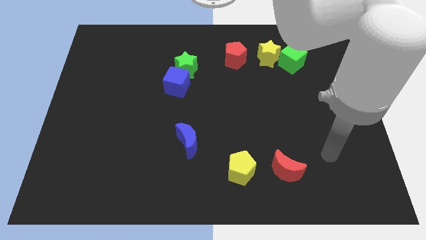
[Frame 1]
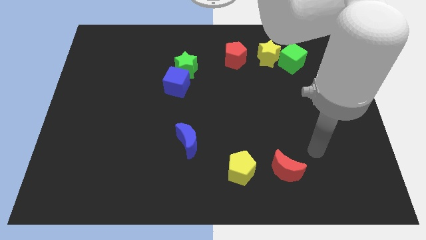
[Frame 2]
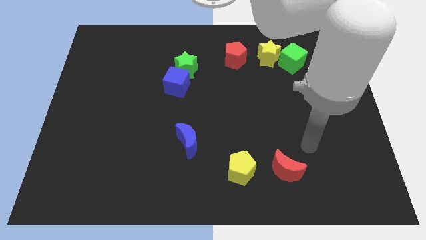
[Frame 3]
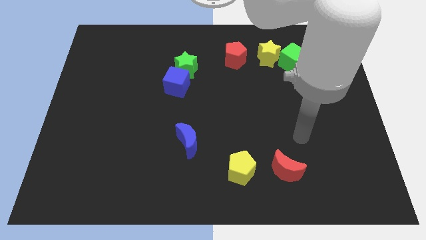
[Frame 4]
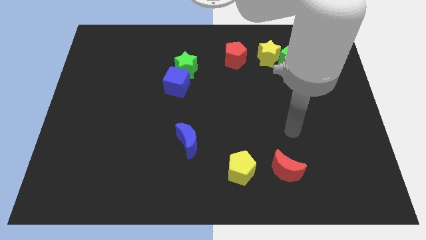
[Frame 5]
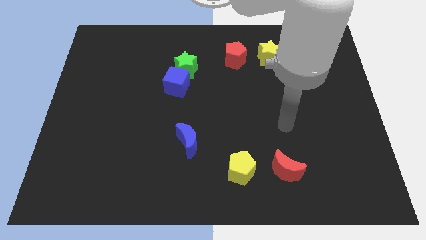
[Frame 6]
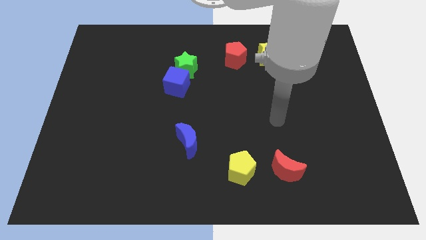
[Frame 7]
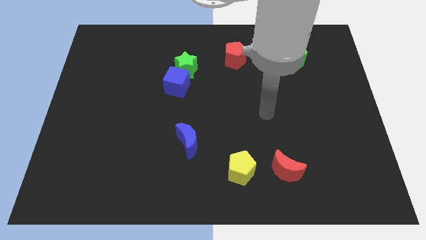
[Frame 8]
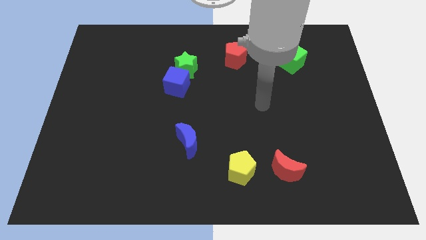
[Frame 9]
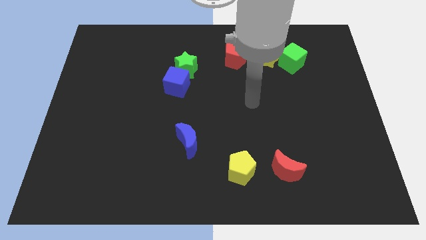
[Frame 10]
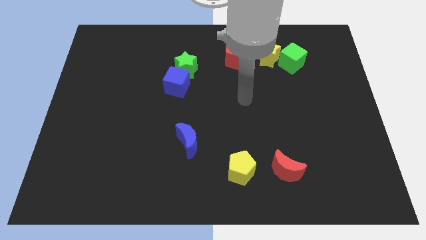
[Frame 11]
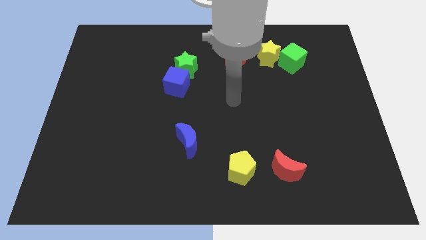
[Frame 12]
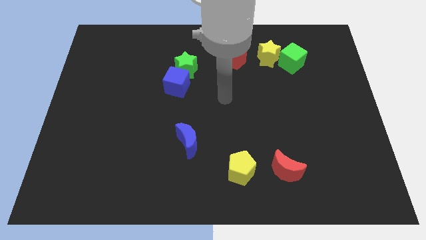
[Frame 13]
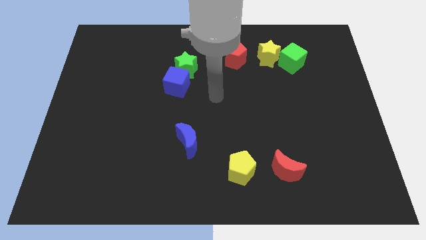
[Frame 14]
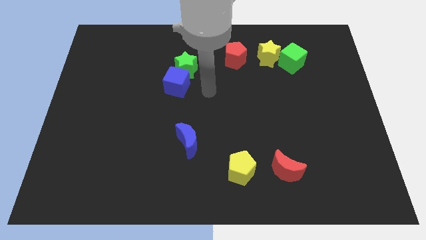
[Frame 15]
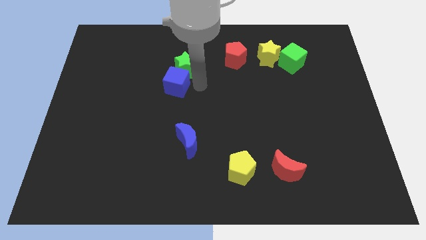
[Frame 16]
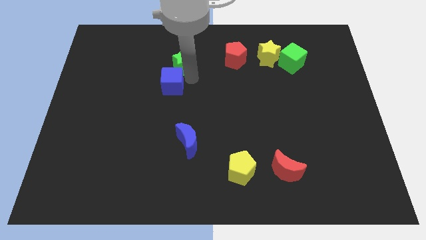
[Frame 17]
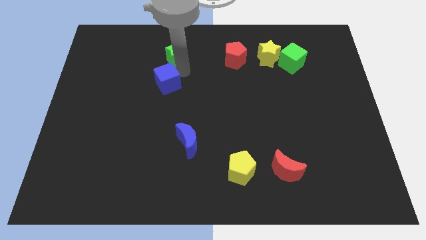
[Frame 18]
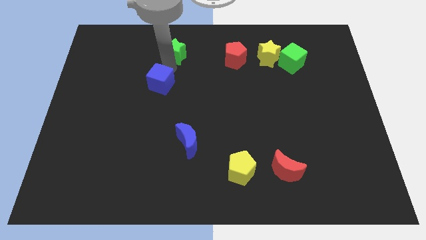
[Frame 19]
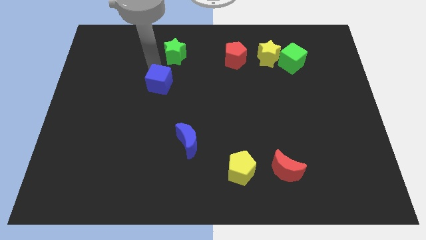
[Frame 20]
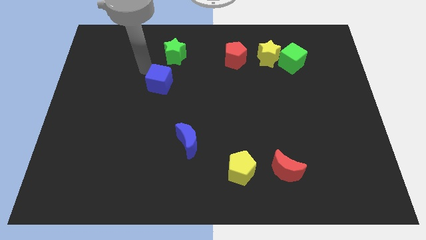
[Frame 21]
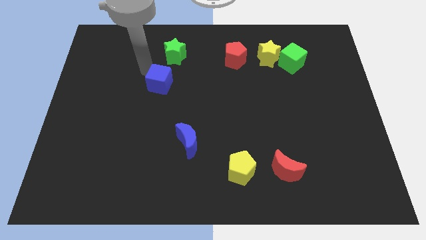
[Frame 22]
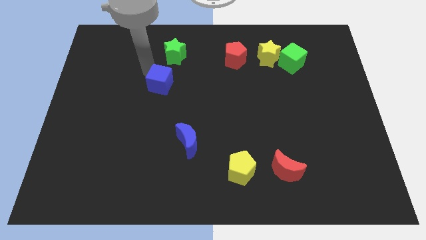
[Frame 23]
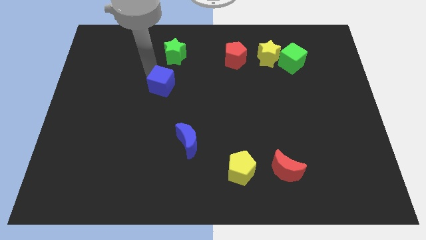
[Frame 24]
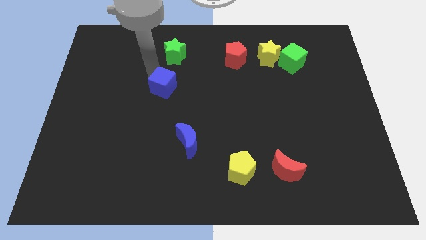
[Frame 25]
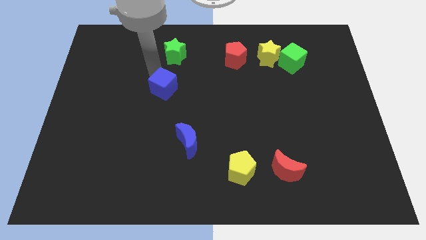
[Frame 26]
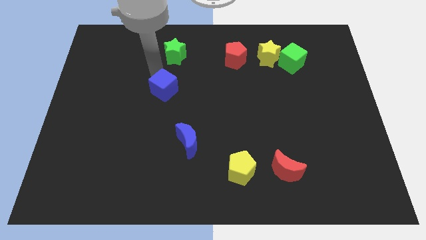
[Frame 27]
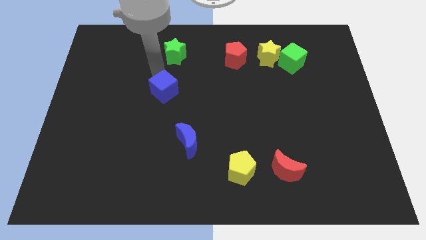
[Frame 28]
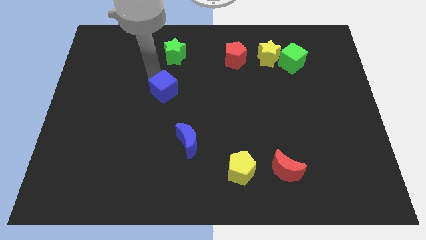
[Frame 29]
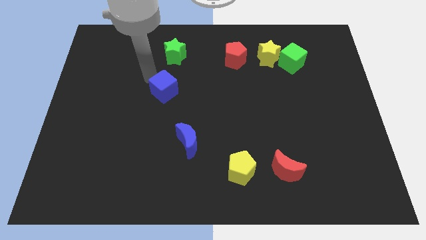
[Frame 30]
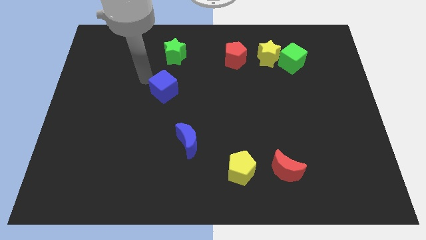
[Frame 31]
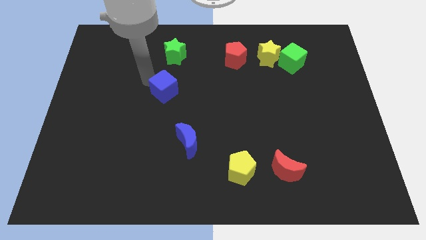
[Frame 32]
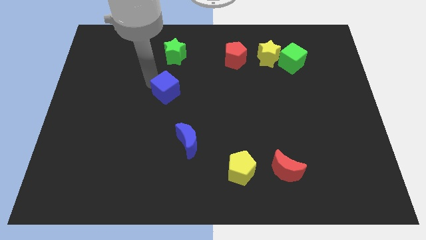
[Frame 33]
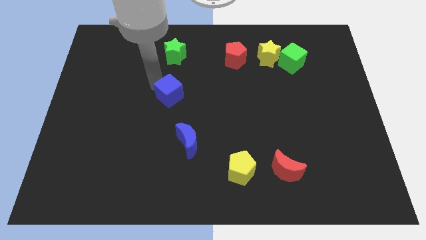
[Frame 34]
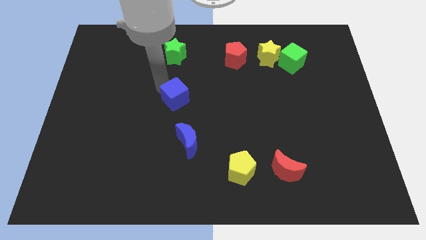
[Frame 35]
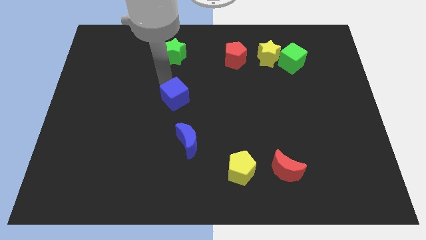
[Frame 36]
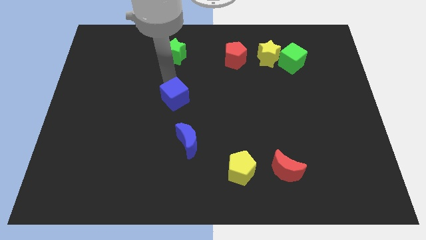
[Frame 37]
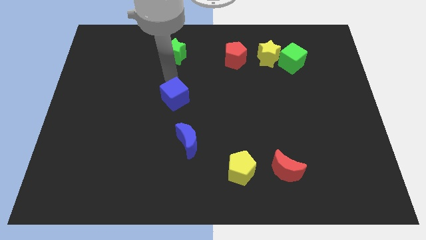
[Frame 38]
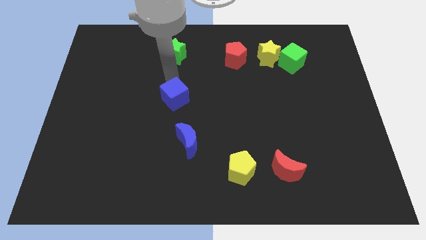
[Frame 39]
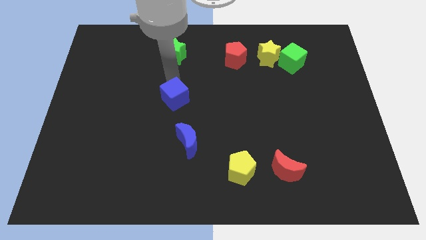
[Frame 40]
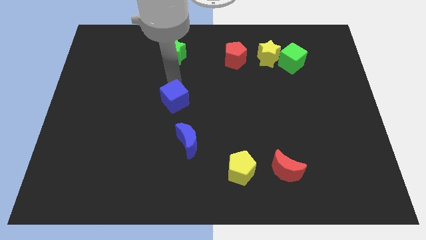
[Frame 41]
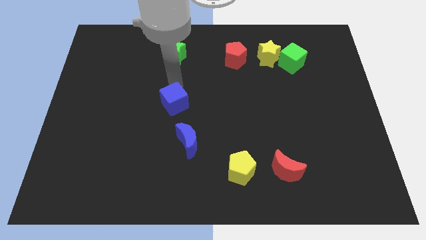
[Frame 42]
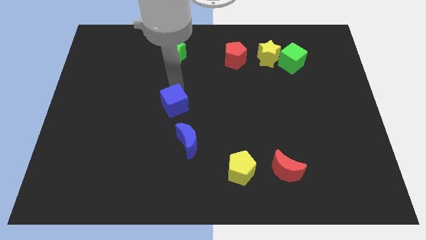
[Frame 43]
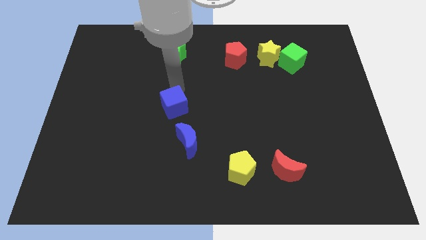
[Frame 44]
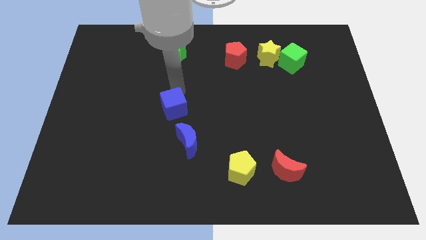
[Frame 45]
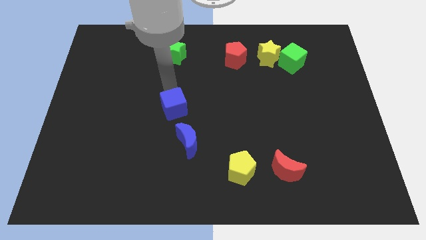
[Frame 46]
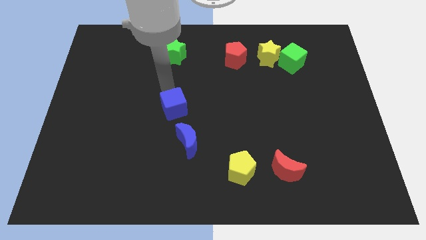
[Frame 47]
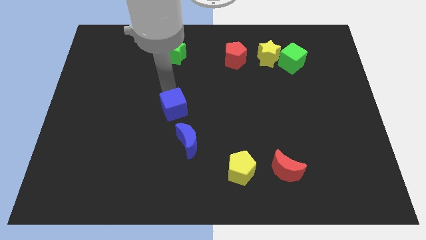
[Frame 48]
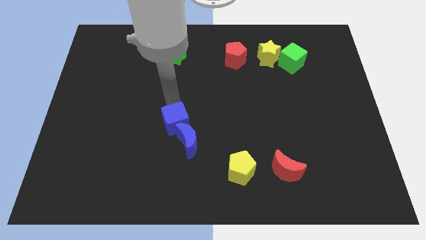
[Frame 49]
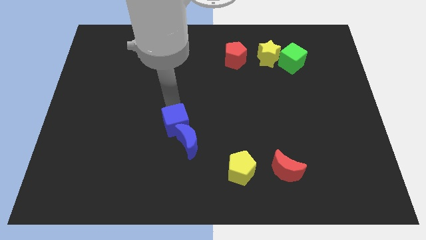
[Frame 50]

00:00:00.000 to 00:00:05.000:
push the blue cube towards the blue moon

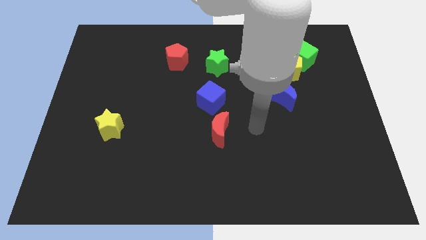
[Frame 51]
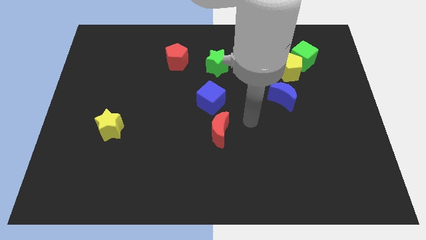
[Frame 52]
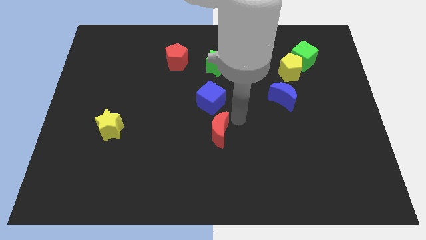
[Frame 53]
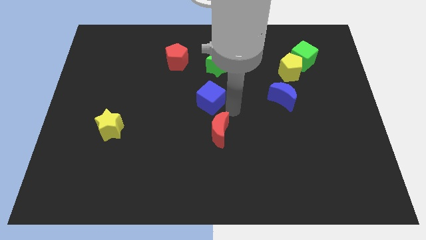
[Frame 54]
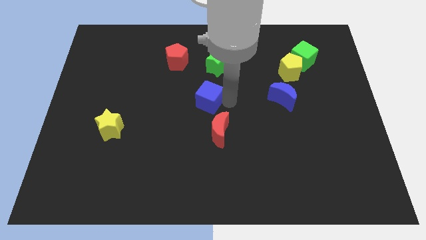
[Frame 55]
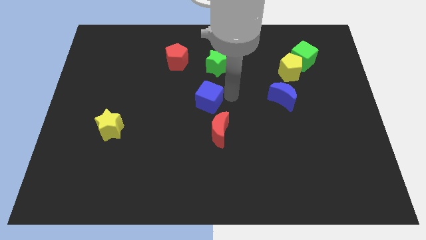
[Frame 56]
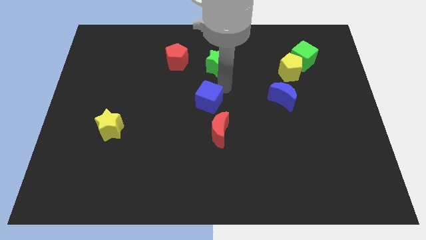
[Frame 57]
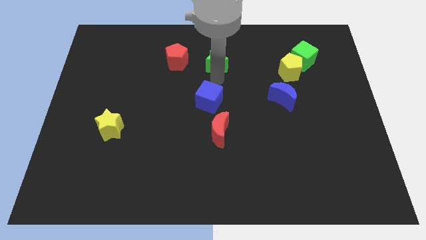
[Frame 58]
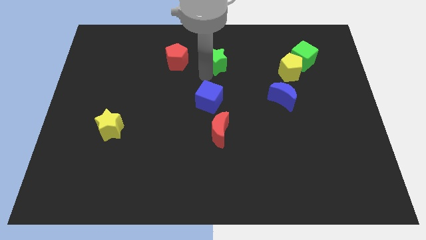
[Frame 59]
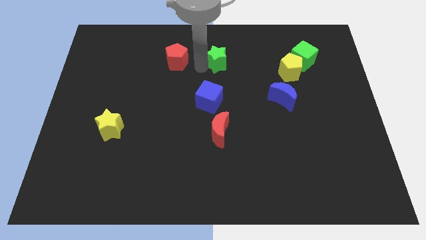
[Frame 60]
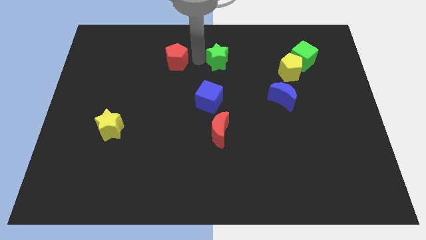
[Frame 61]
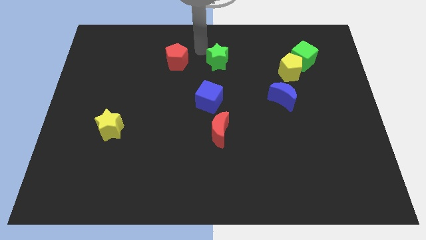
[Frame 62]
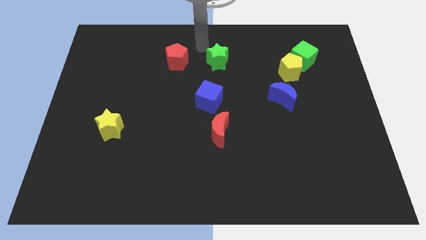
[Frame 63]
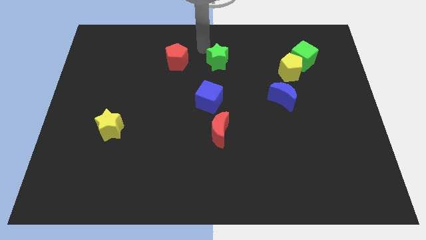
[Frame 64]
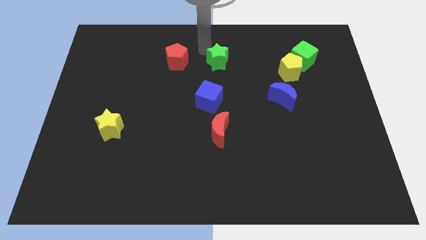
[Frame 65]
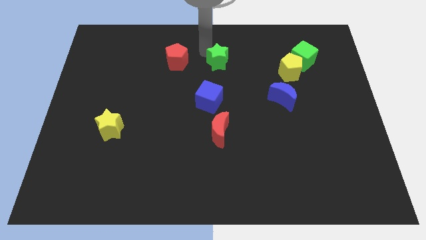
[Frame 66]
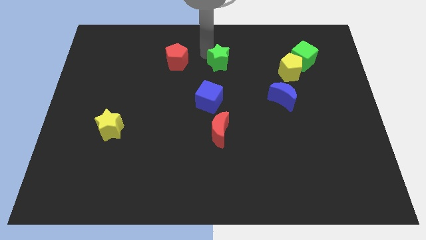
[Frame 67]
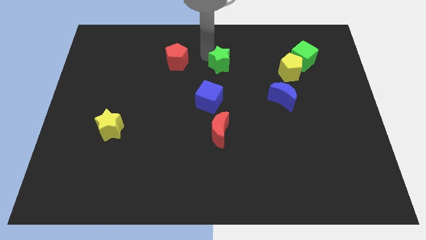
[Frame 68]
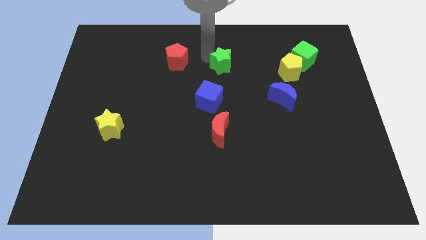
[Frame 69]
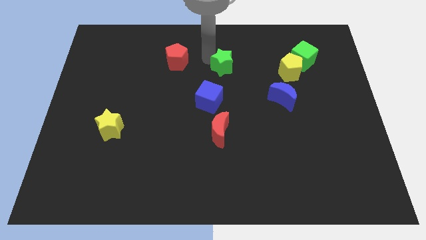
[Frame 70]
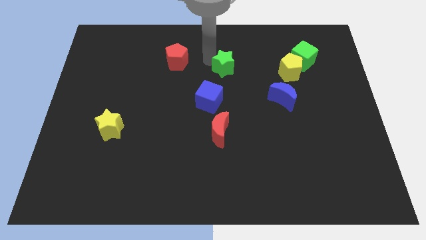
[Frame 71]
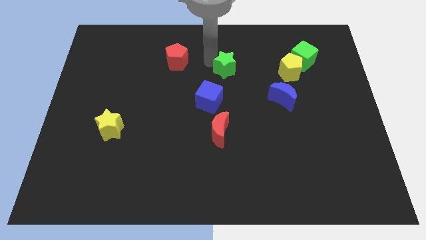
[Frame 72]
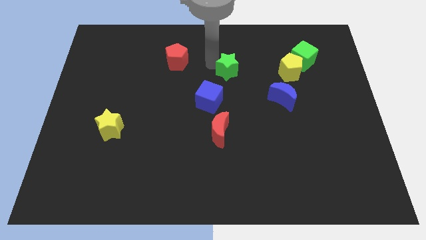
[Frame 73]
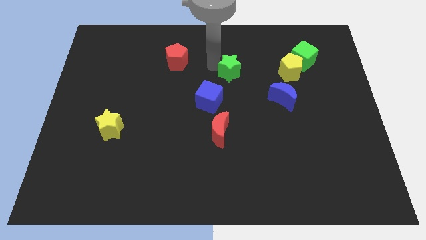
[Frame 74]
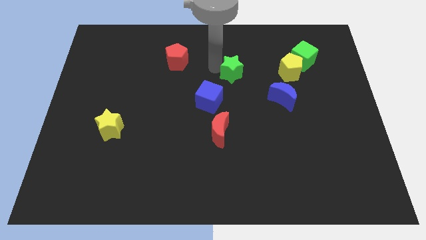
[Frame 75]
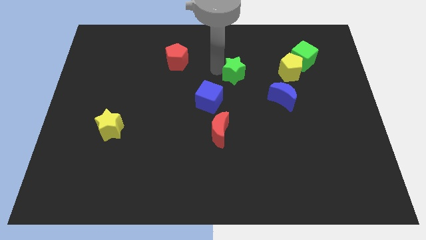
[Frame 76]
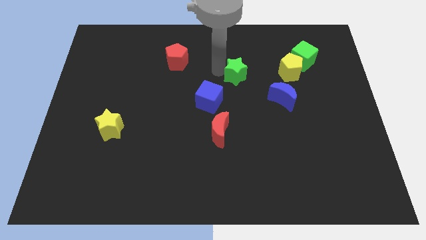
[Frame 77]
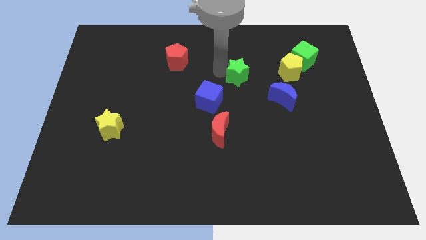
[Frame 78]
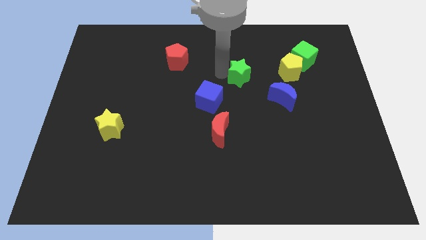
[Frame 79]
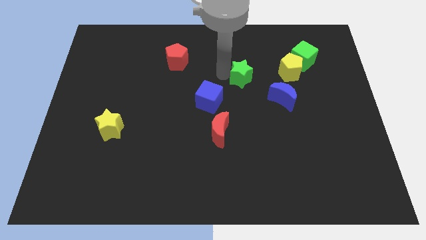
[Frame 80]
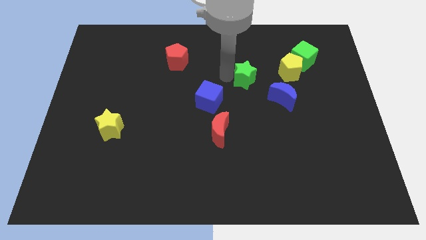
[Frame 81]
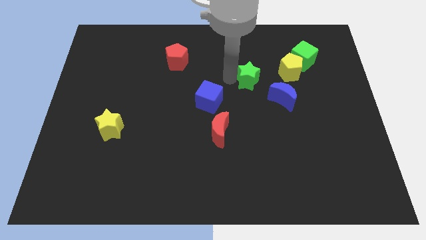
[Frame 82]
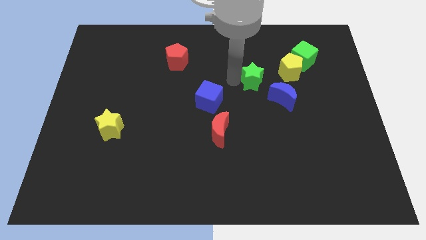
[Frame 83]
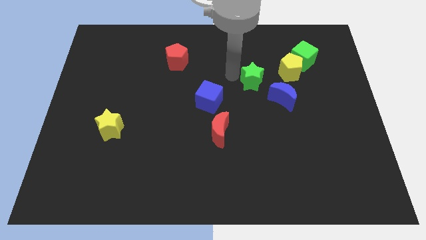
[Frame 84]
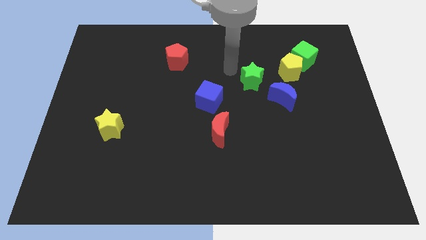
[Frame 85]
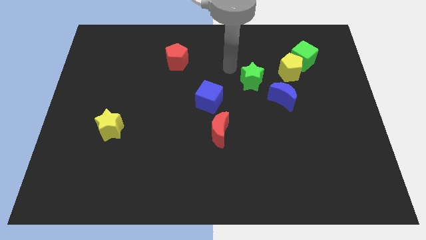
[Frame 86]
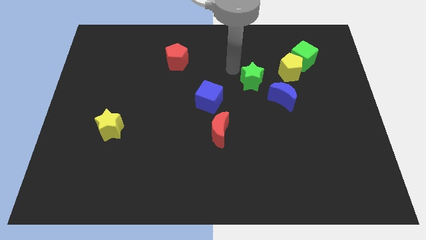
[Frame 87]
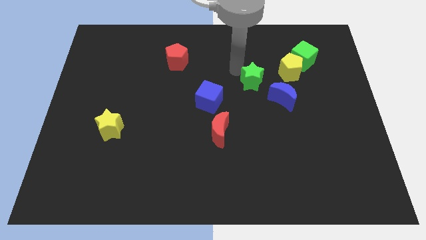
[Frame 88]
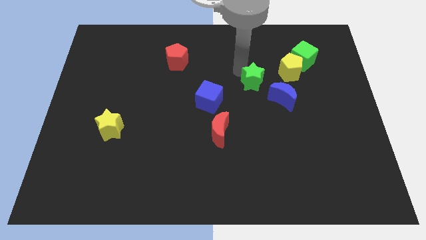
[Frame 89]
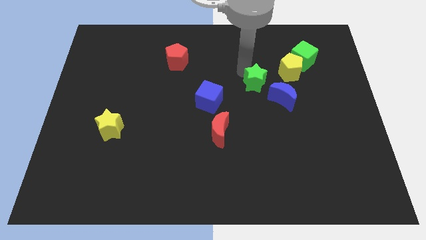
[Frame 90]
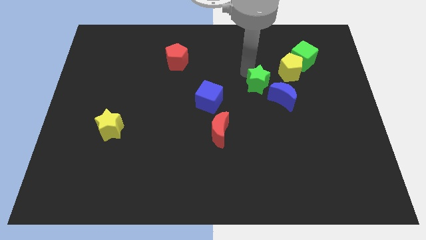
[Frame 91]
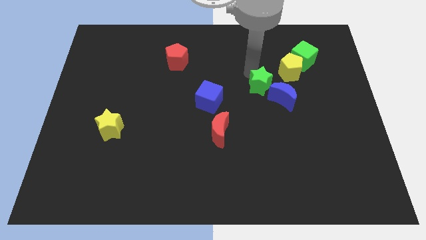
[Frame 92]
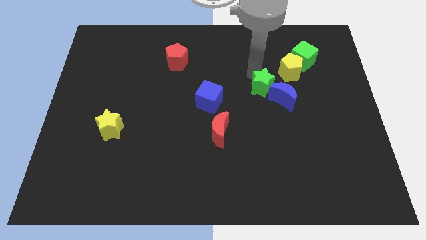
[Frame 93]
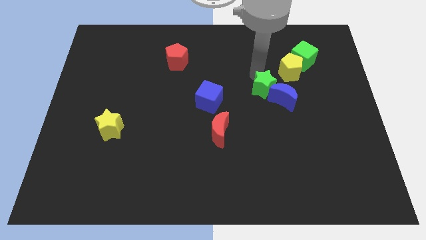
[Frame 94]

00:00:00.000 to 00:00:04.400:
move the green star to the blue moon
